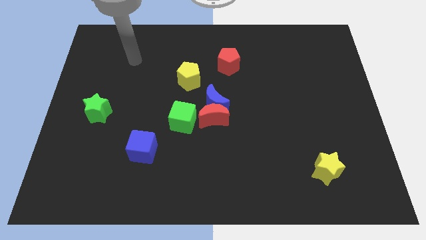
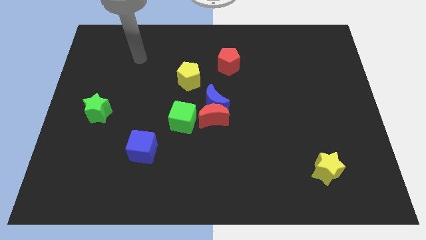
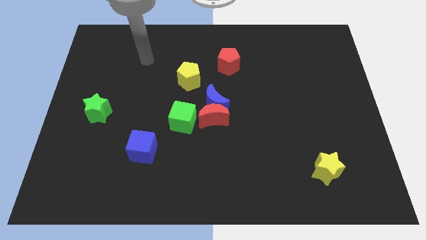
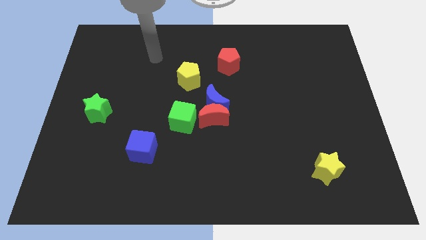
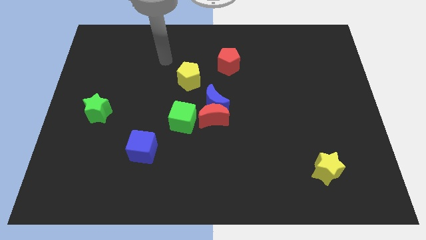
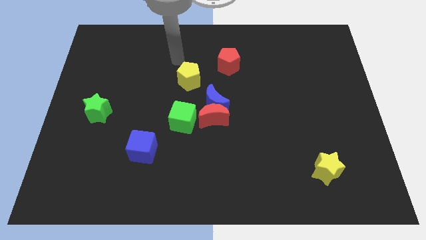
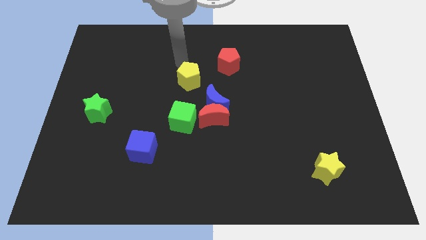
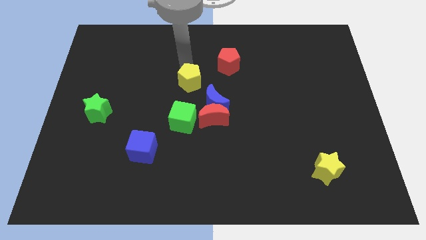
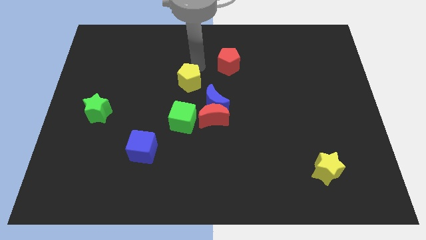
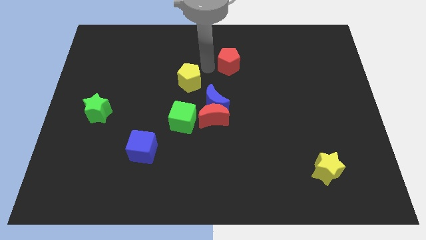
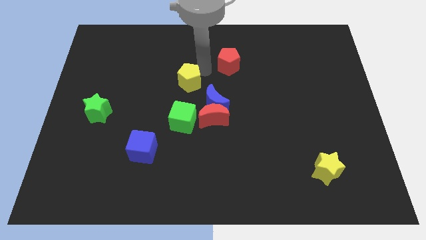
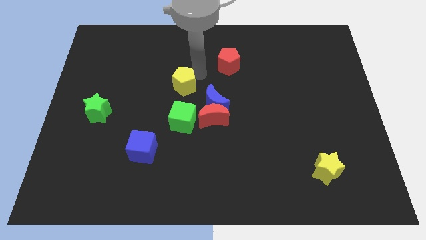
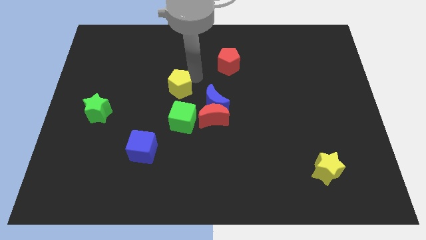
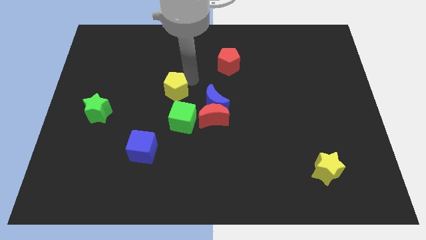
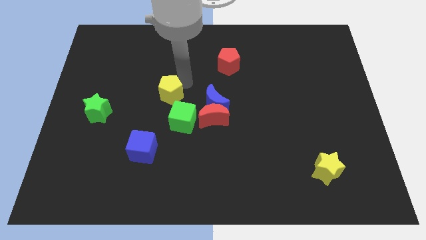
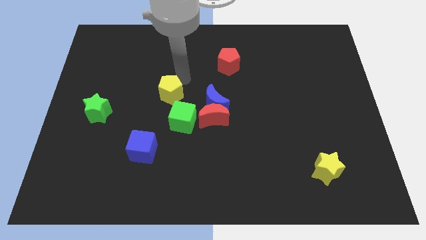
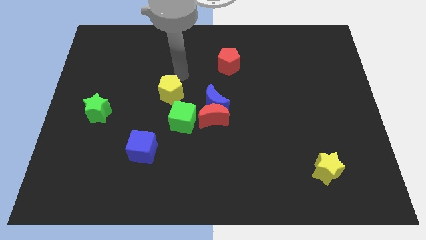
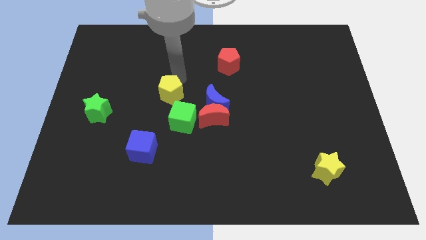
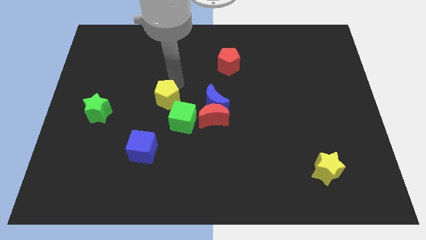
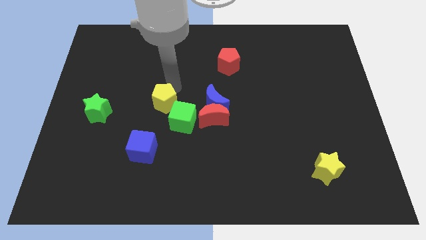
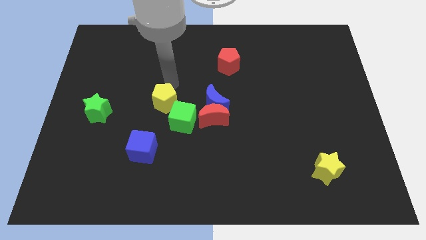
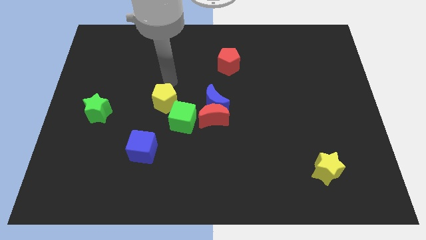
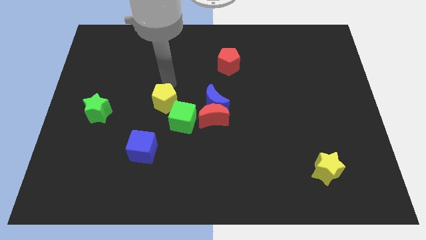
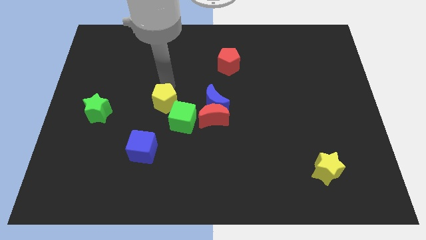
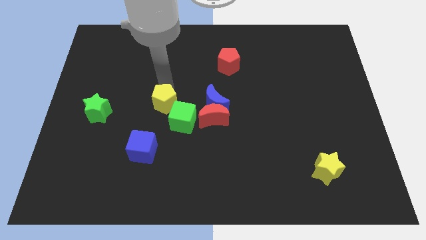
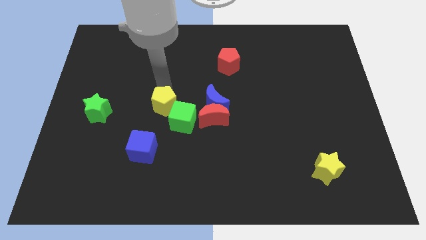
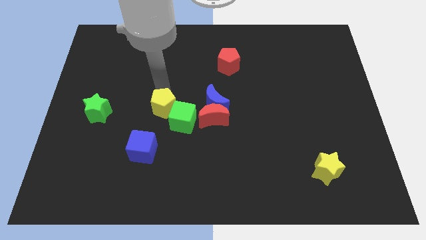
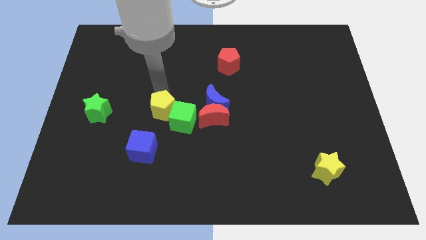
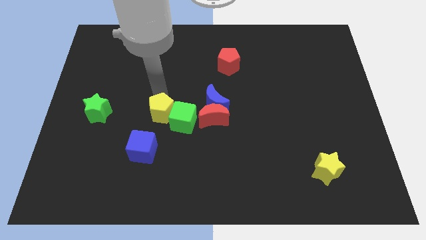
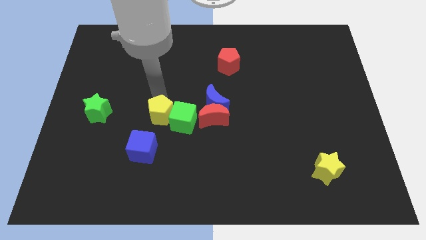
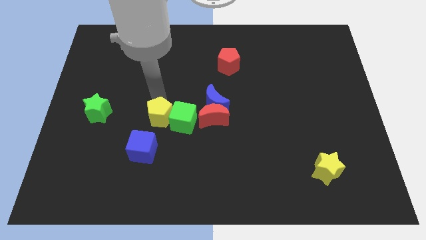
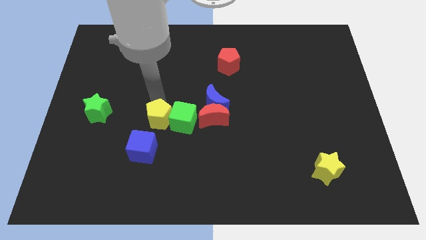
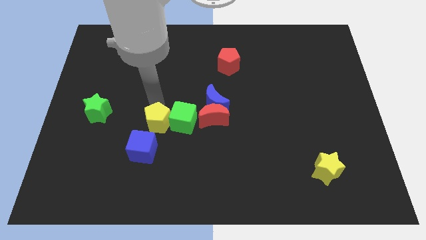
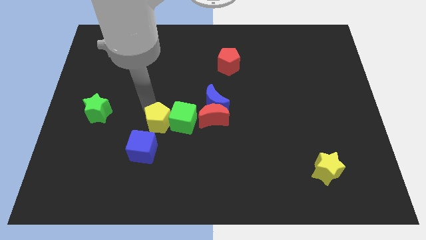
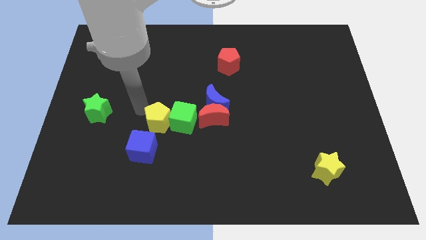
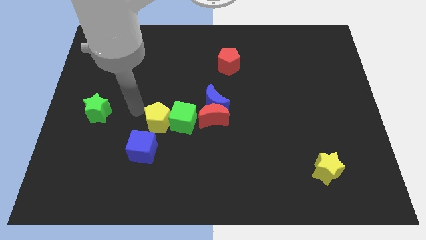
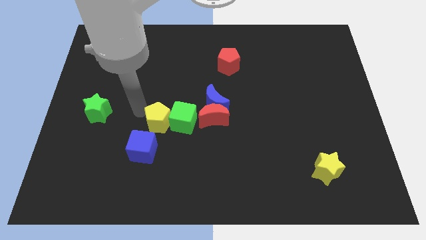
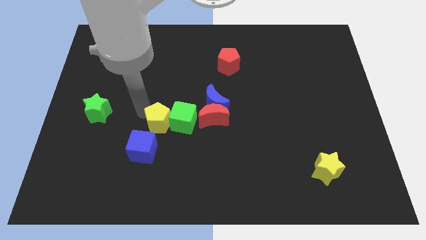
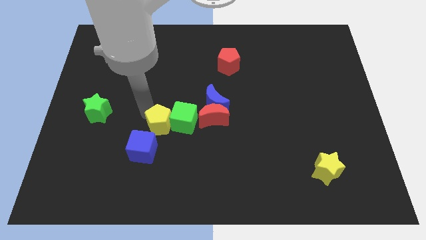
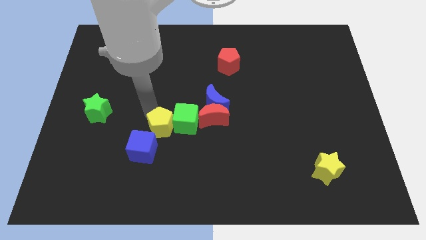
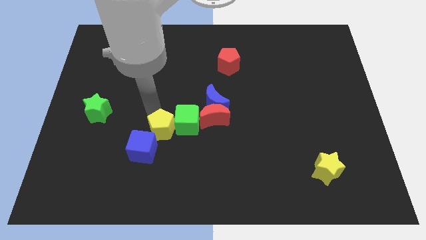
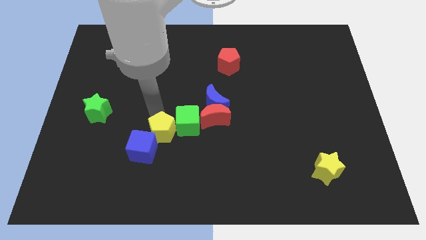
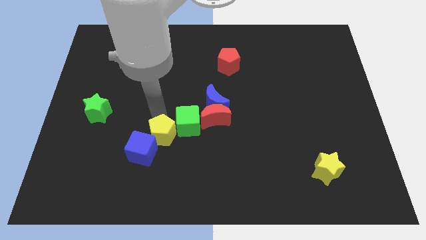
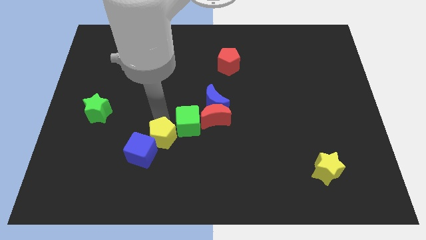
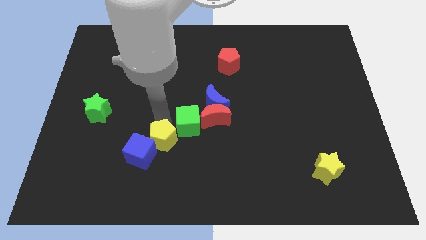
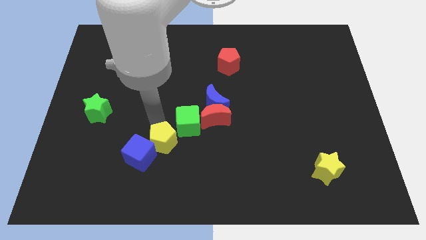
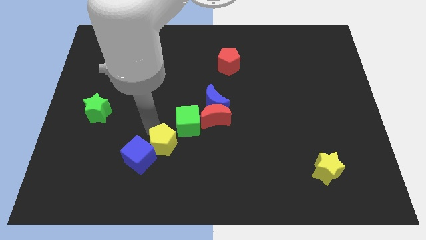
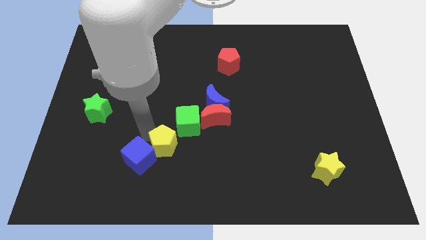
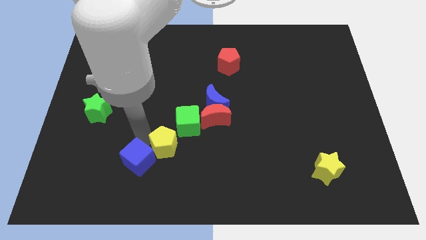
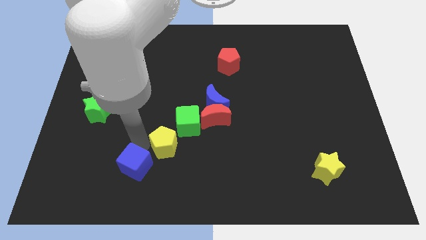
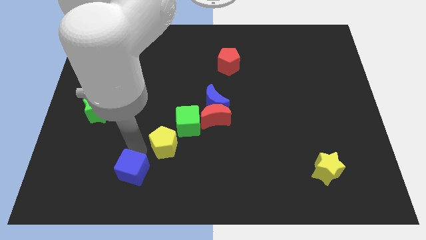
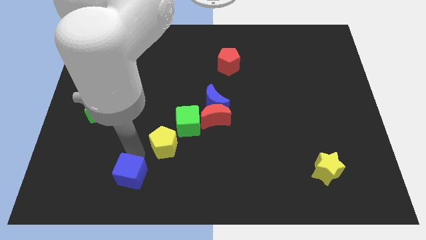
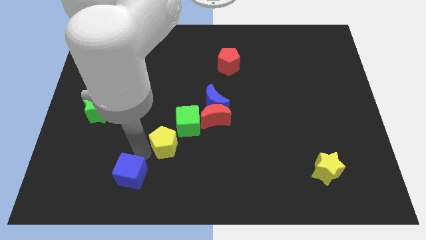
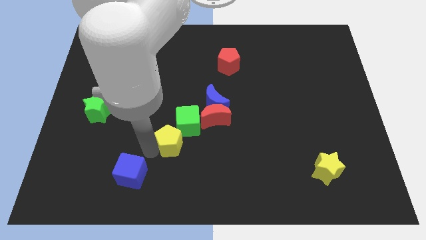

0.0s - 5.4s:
move the yellow pentagon diagonally down and to the left of the red moon

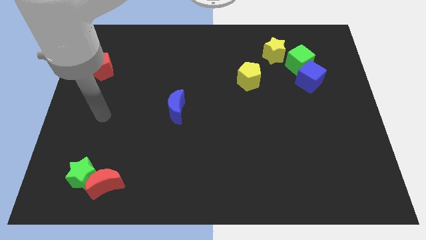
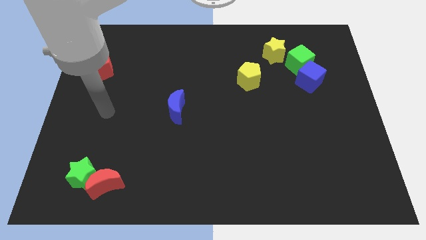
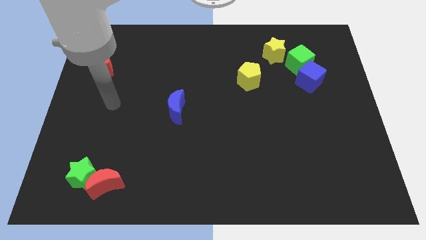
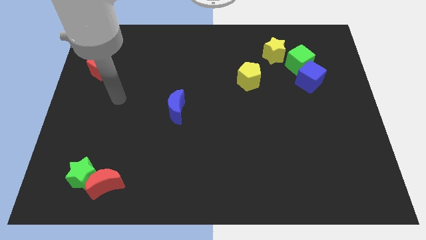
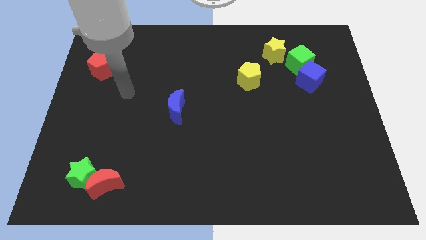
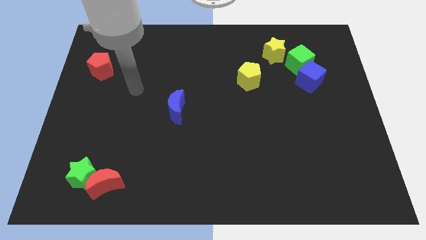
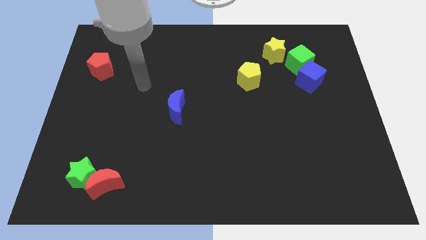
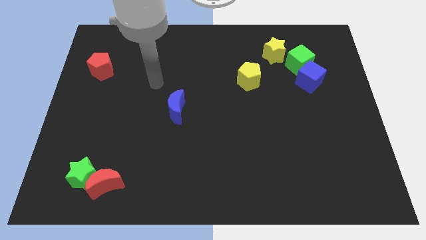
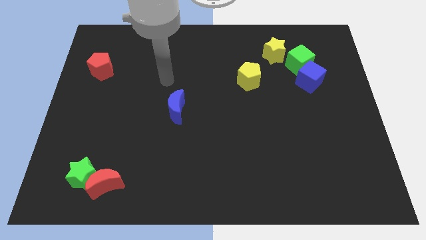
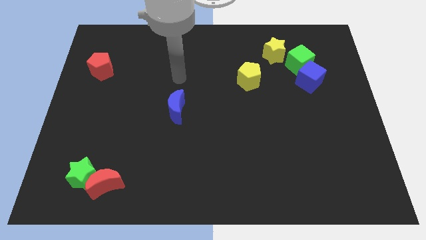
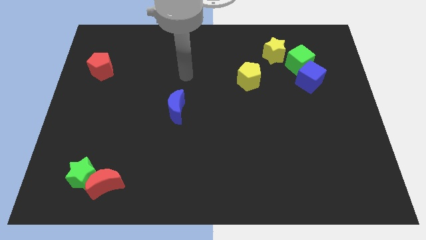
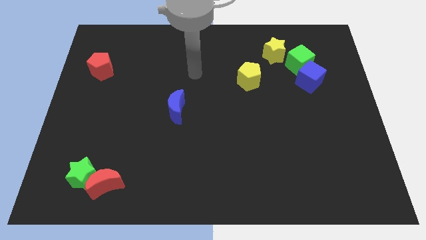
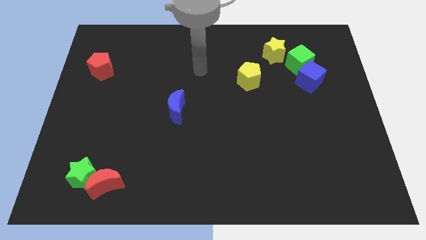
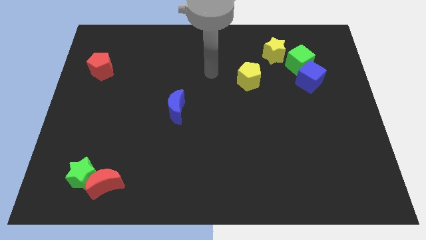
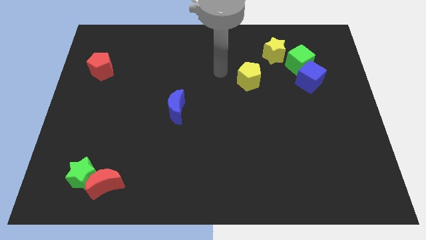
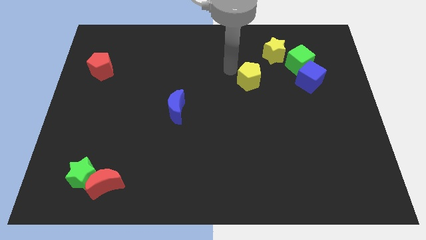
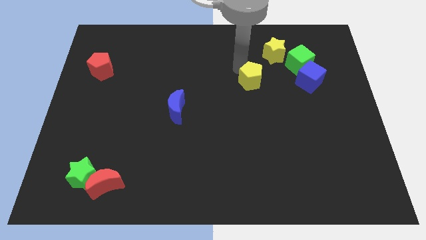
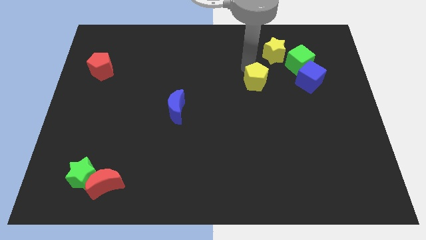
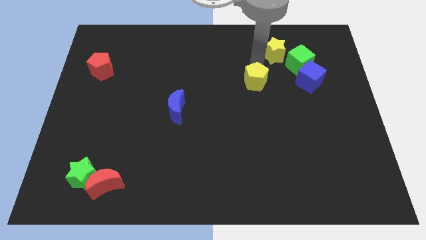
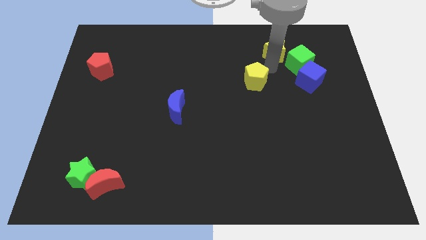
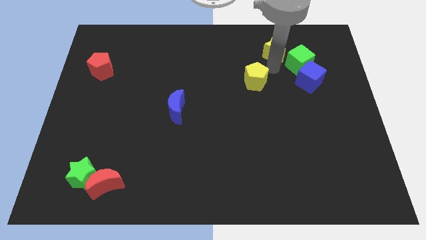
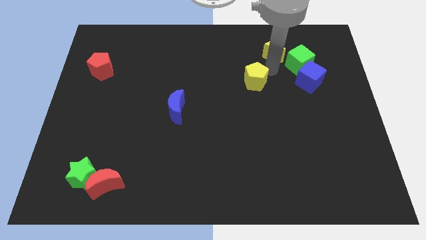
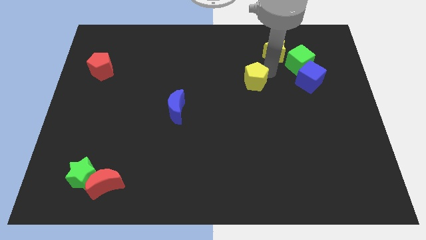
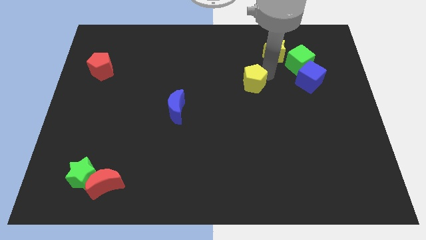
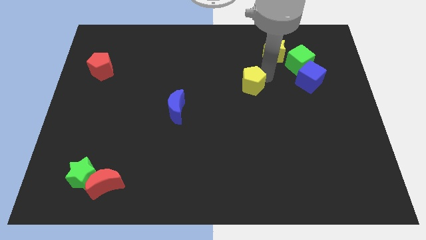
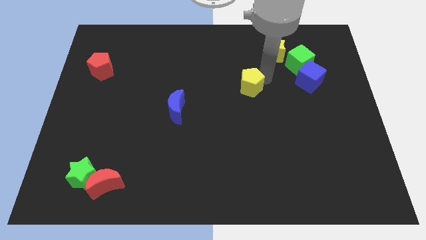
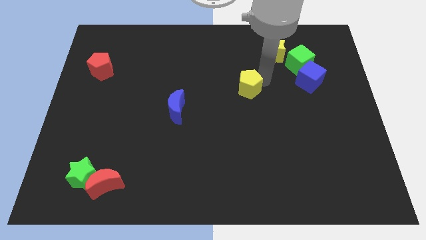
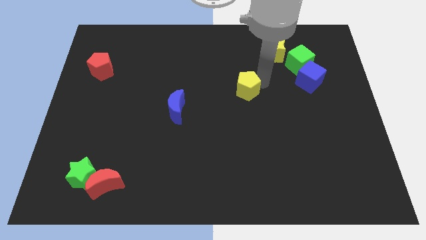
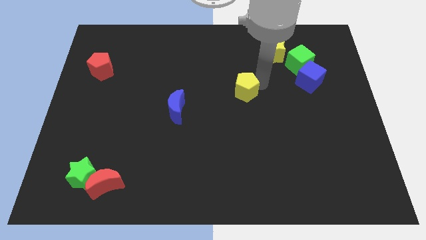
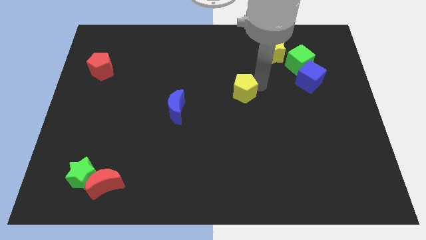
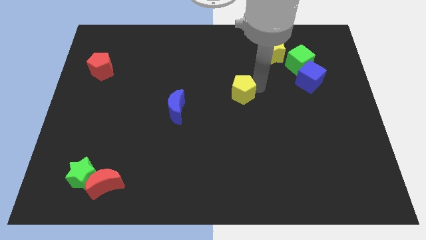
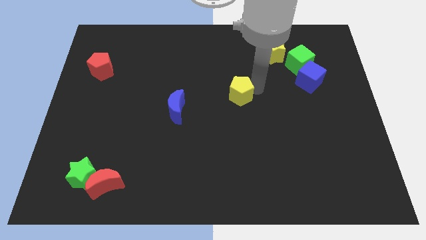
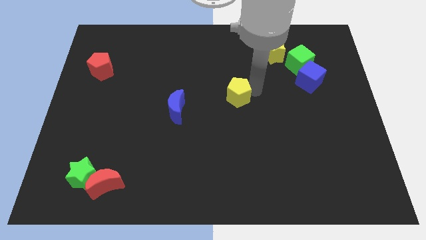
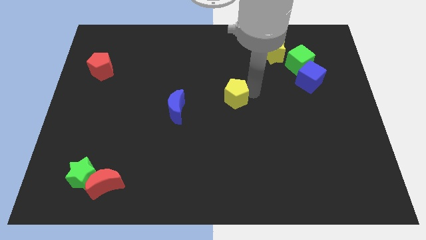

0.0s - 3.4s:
move the yellow pentagon to the right side of the blue moon
